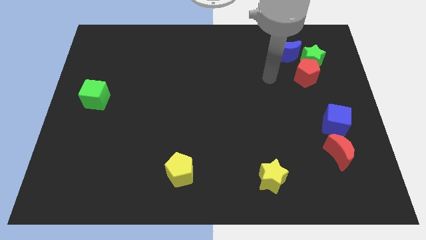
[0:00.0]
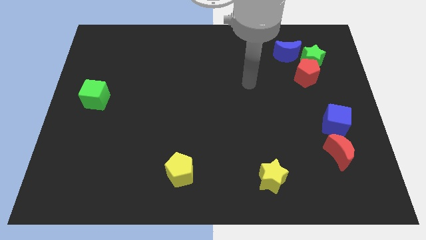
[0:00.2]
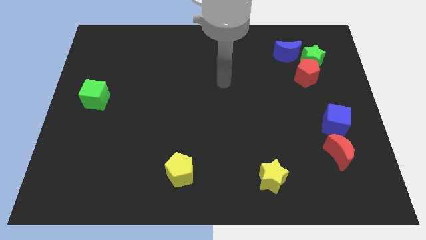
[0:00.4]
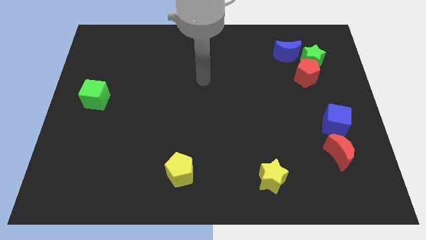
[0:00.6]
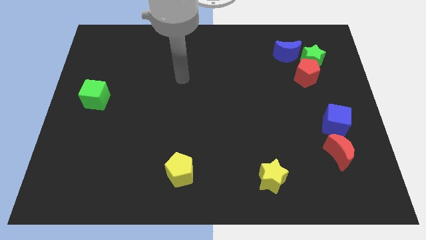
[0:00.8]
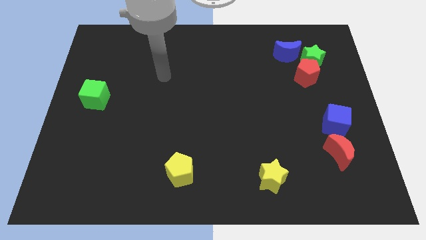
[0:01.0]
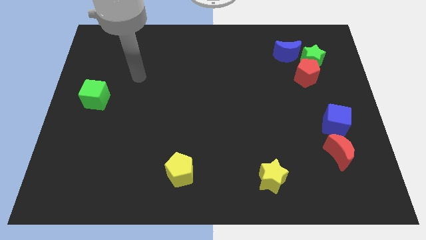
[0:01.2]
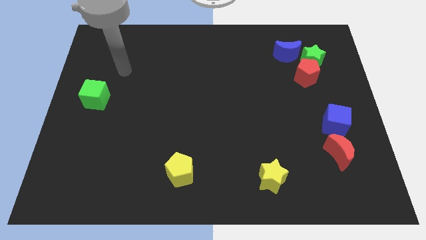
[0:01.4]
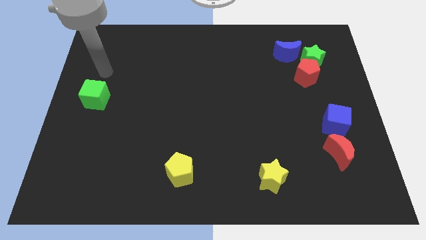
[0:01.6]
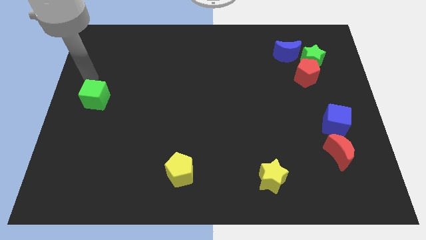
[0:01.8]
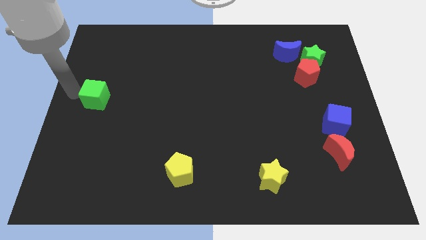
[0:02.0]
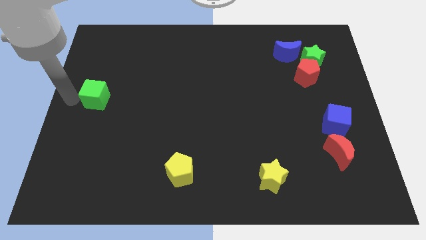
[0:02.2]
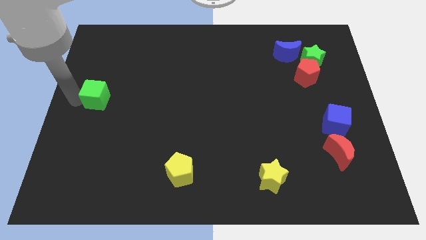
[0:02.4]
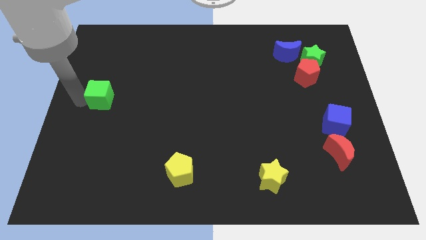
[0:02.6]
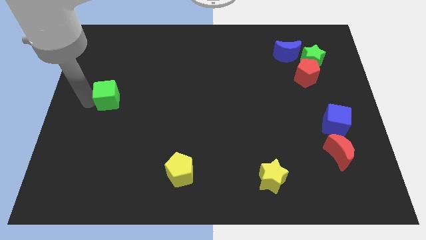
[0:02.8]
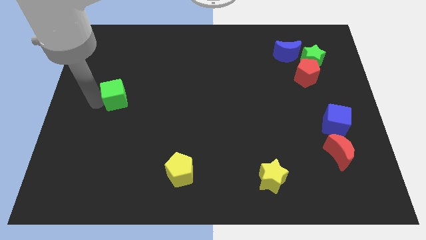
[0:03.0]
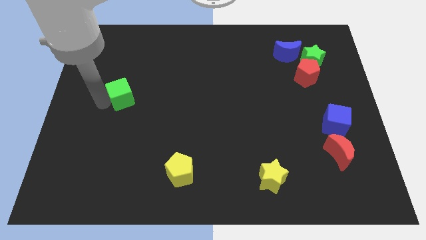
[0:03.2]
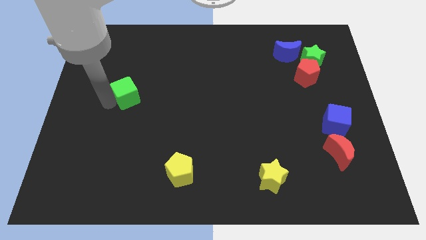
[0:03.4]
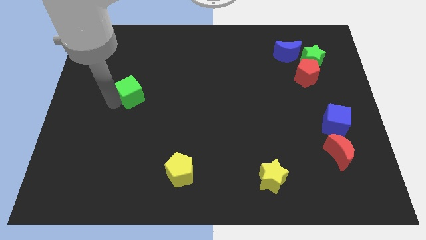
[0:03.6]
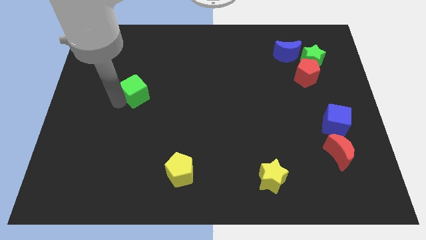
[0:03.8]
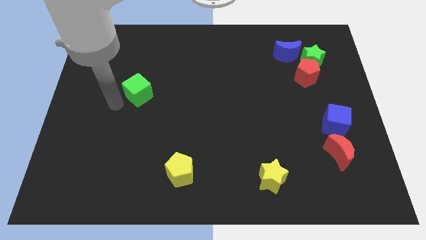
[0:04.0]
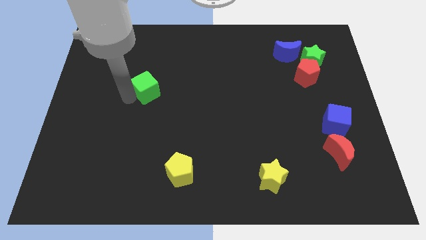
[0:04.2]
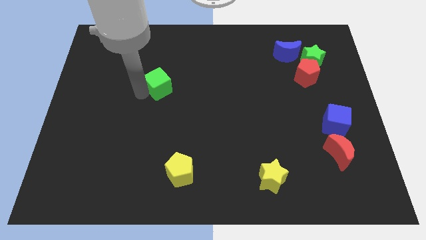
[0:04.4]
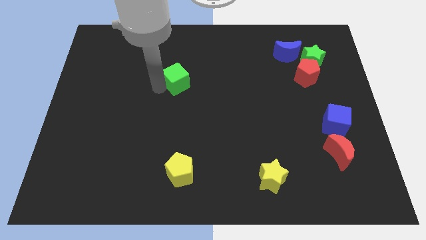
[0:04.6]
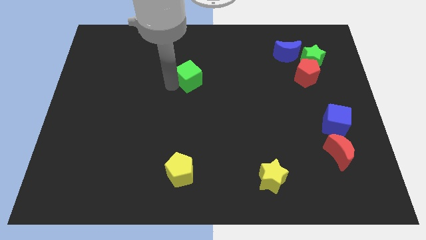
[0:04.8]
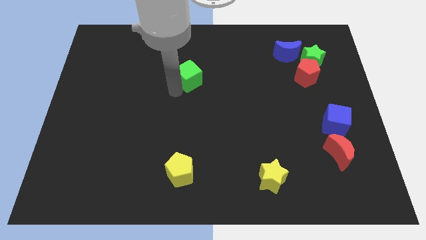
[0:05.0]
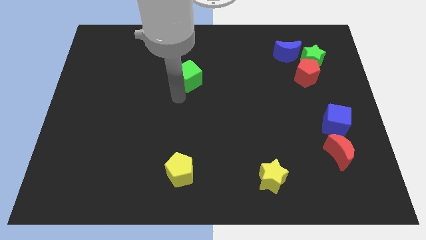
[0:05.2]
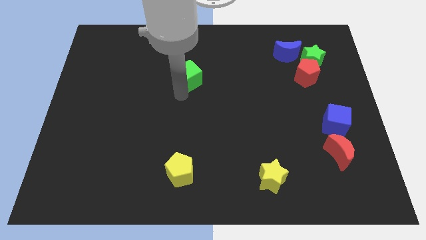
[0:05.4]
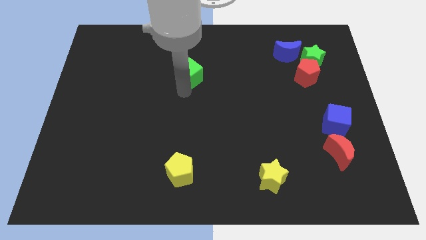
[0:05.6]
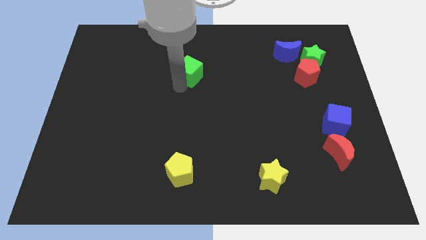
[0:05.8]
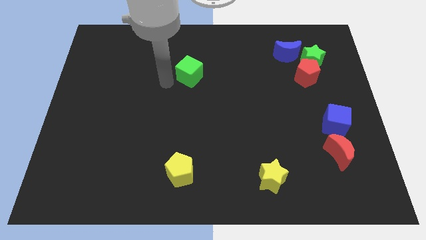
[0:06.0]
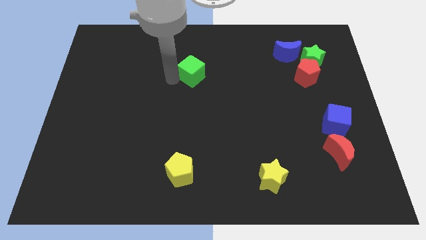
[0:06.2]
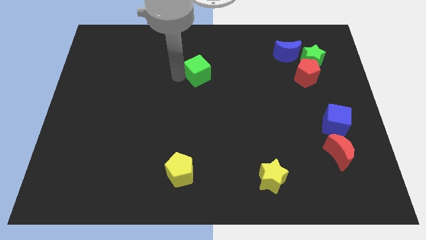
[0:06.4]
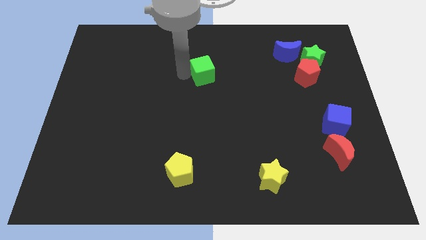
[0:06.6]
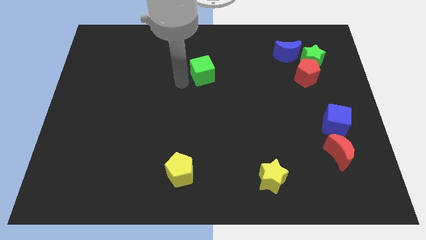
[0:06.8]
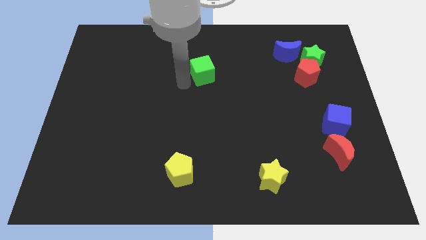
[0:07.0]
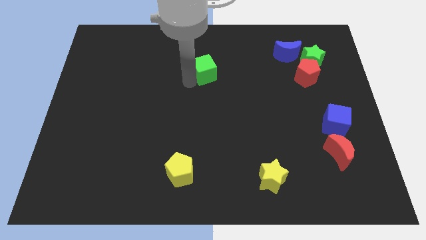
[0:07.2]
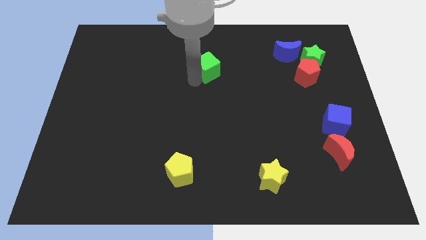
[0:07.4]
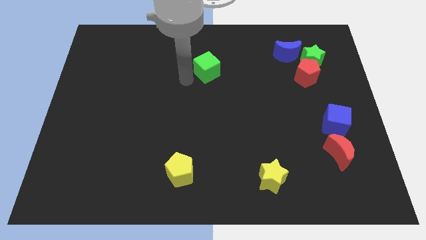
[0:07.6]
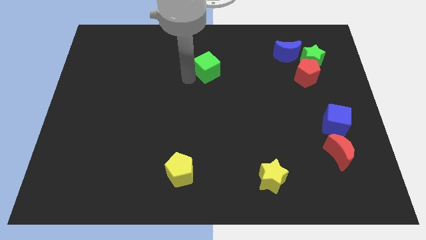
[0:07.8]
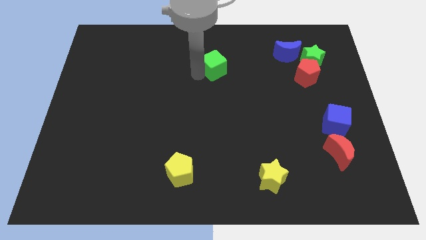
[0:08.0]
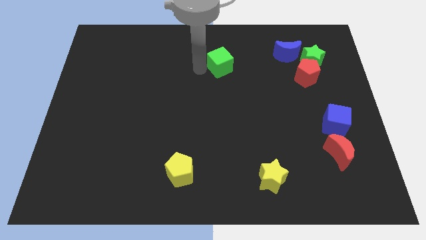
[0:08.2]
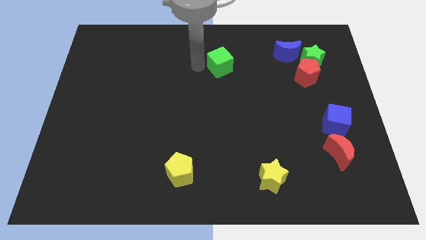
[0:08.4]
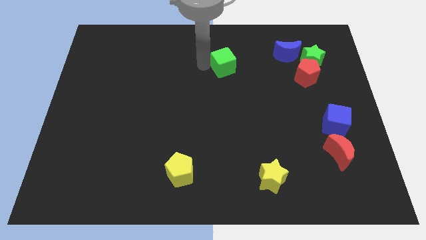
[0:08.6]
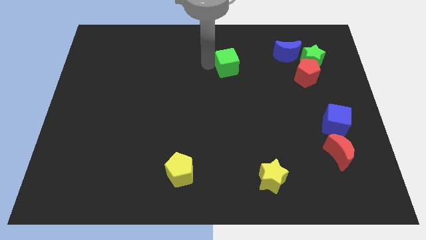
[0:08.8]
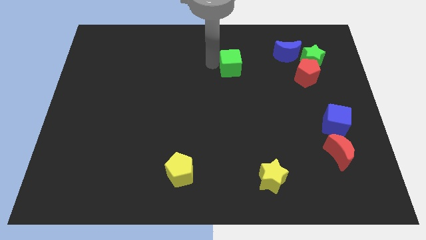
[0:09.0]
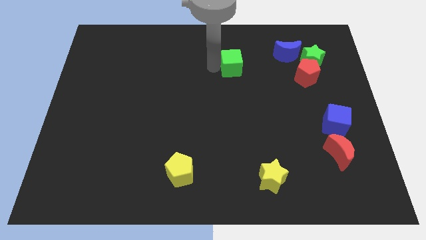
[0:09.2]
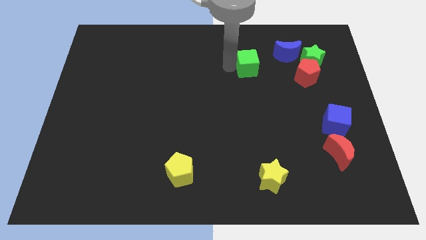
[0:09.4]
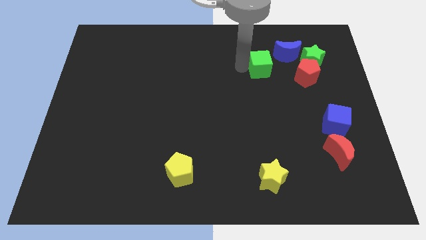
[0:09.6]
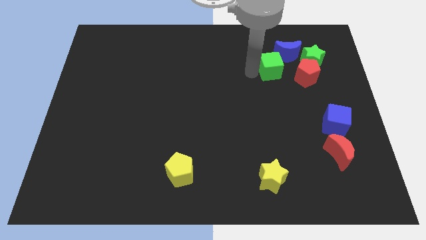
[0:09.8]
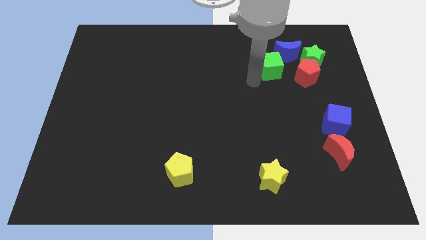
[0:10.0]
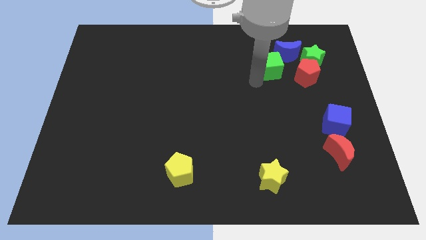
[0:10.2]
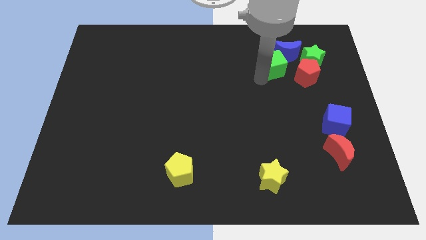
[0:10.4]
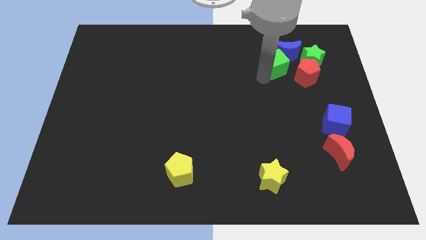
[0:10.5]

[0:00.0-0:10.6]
put the green cube next to the blue moon

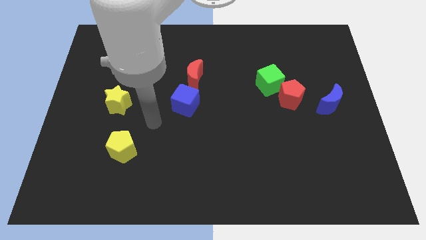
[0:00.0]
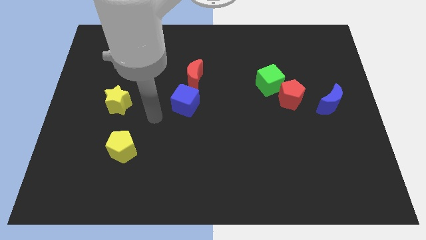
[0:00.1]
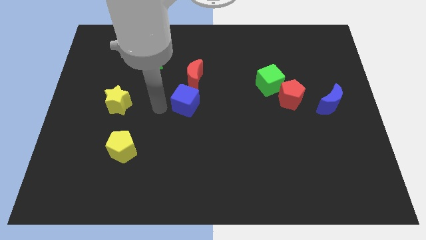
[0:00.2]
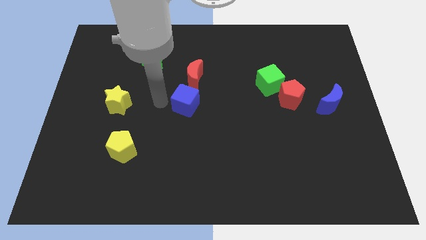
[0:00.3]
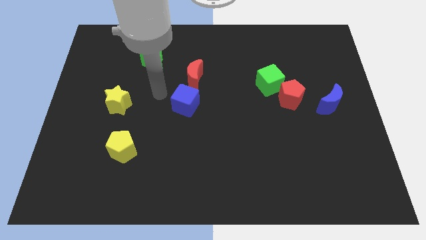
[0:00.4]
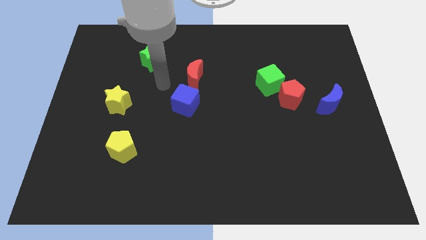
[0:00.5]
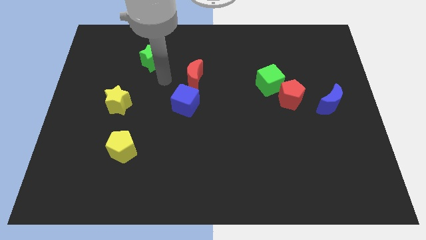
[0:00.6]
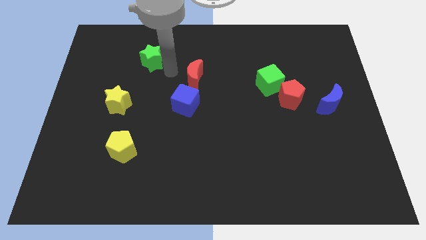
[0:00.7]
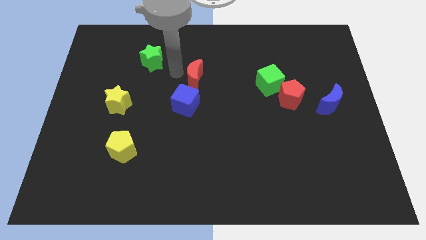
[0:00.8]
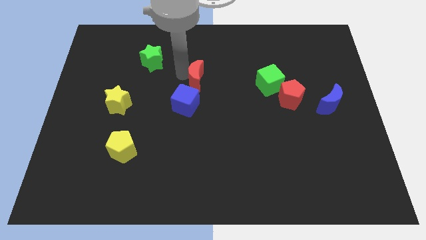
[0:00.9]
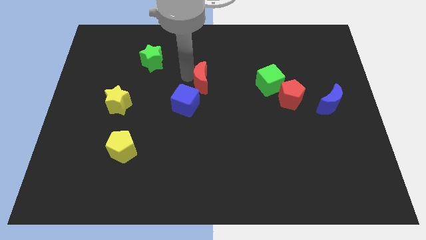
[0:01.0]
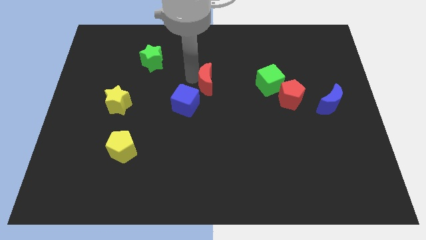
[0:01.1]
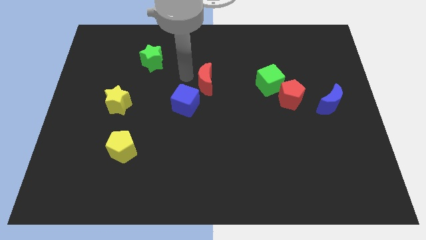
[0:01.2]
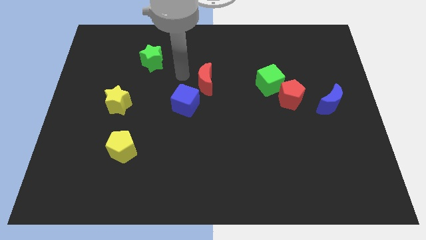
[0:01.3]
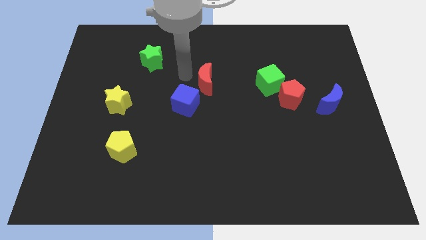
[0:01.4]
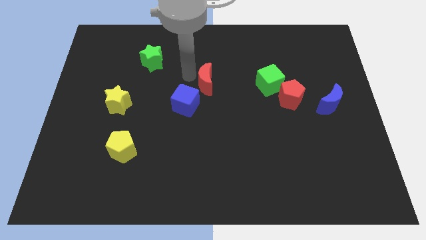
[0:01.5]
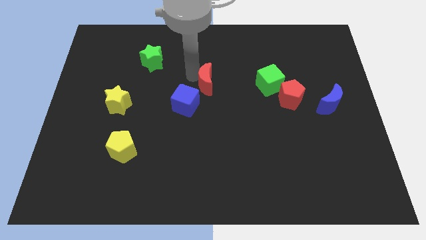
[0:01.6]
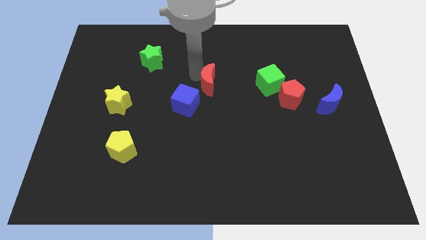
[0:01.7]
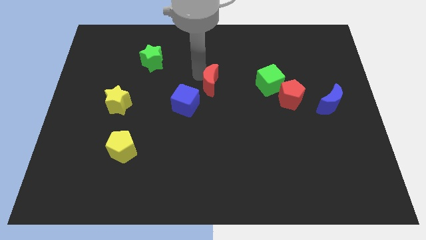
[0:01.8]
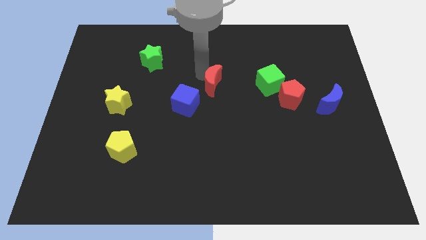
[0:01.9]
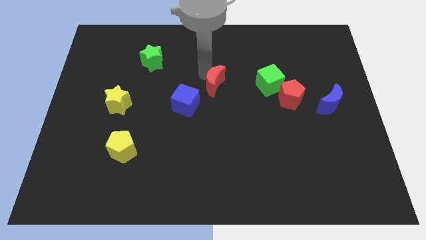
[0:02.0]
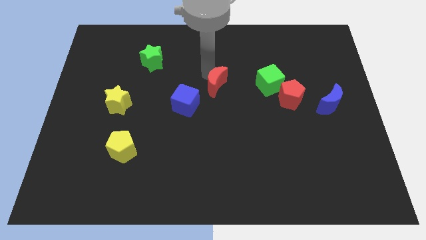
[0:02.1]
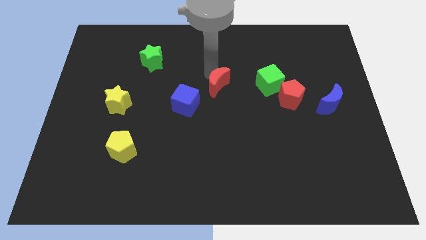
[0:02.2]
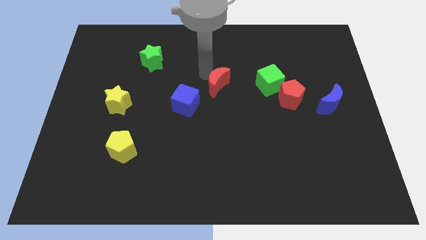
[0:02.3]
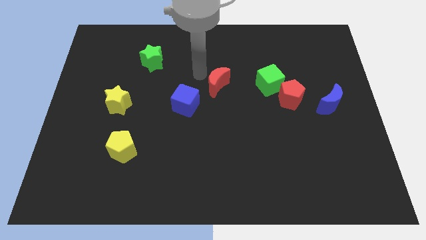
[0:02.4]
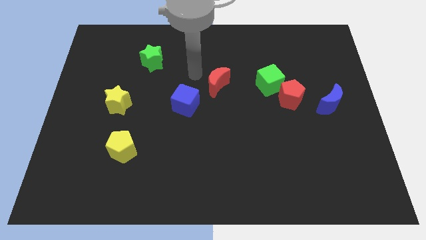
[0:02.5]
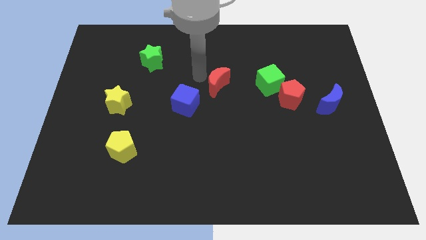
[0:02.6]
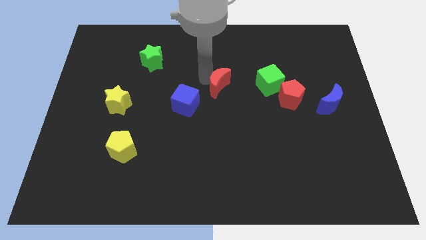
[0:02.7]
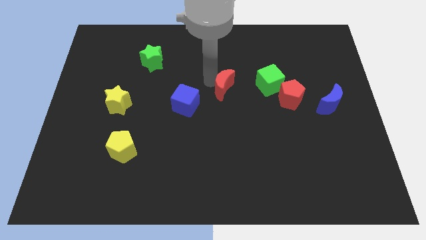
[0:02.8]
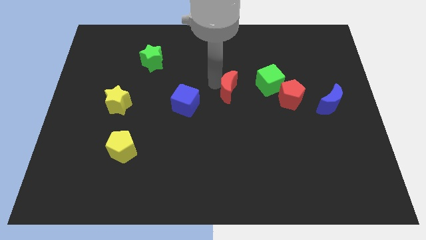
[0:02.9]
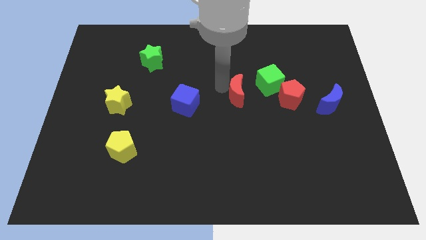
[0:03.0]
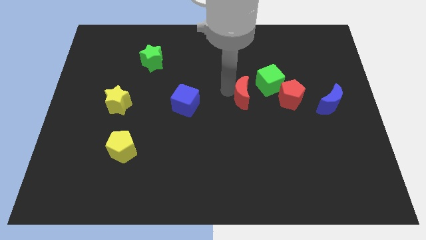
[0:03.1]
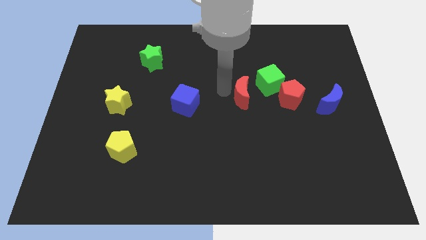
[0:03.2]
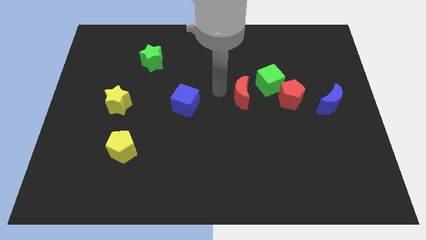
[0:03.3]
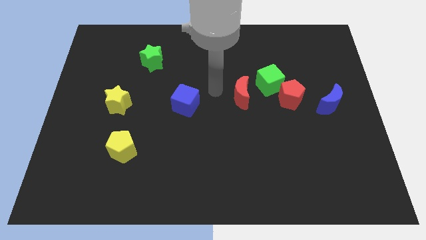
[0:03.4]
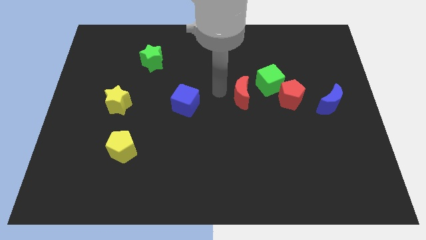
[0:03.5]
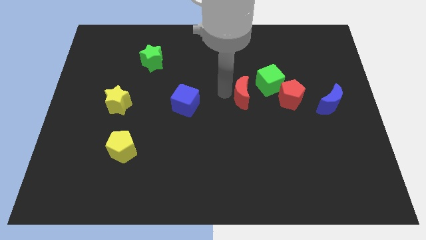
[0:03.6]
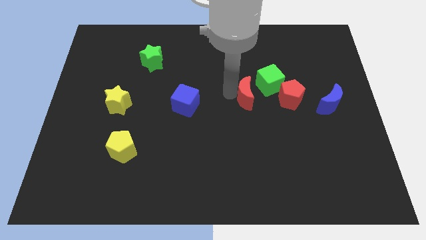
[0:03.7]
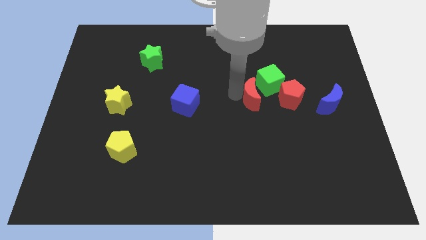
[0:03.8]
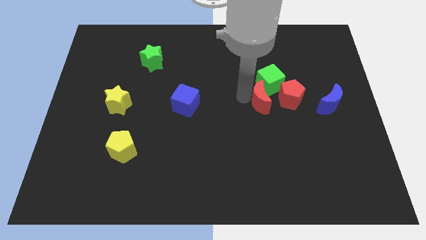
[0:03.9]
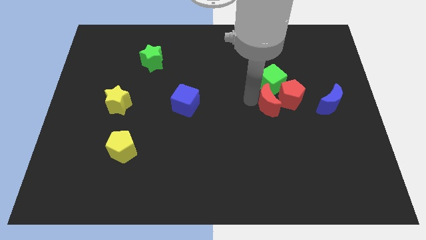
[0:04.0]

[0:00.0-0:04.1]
move the red moon next to the red pentagon
